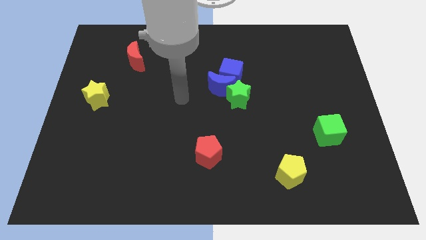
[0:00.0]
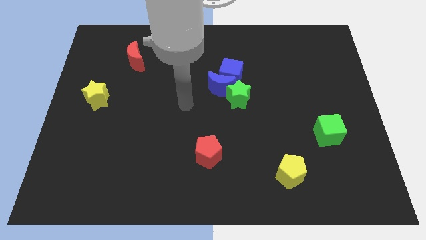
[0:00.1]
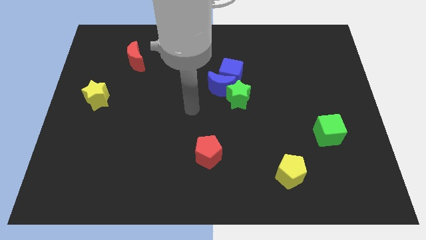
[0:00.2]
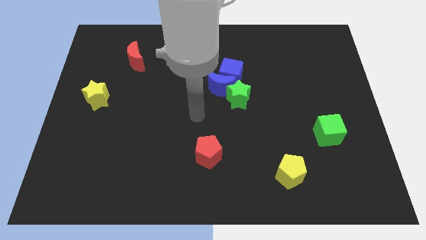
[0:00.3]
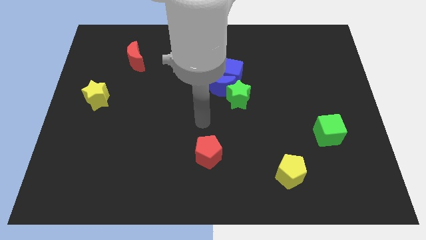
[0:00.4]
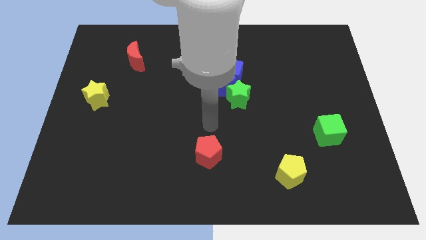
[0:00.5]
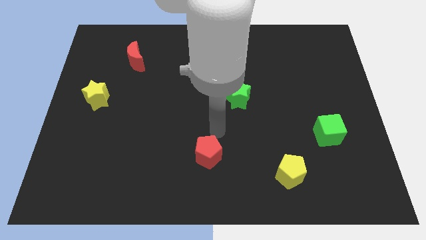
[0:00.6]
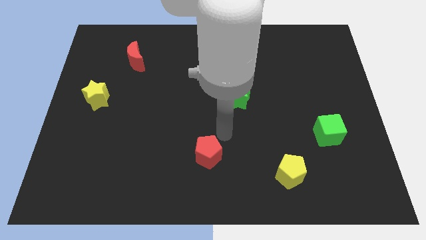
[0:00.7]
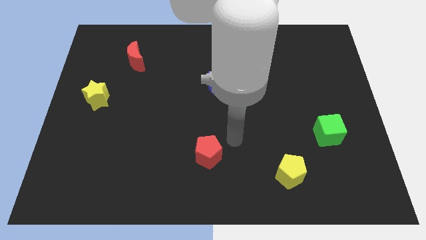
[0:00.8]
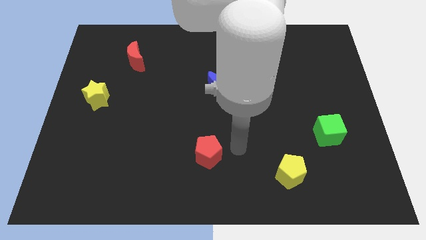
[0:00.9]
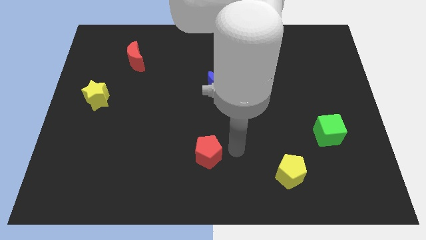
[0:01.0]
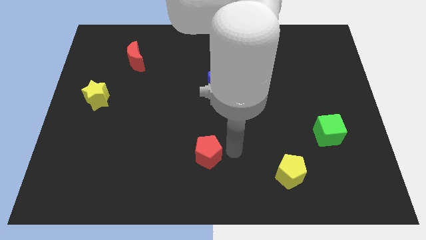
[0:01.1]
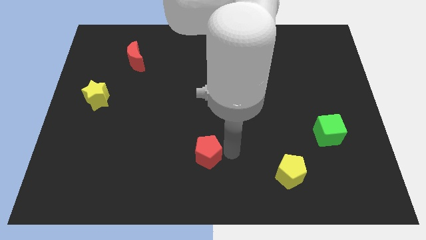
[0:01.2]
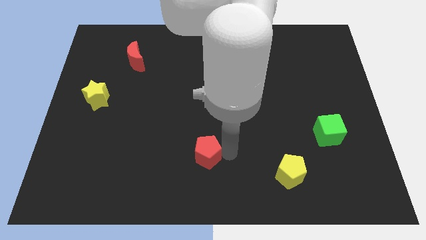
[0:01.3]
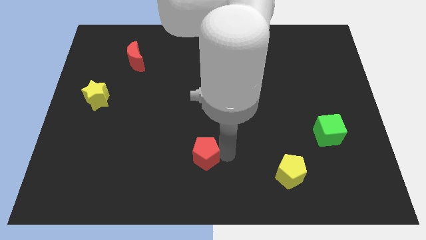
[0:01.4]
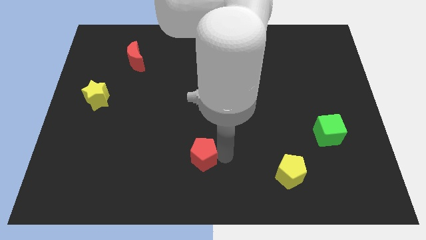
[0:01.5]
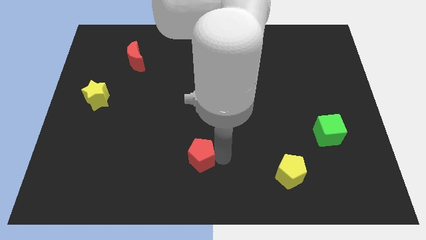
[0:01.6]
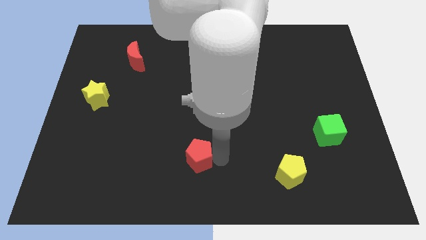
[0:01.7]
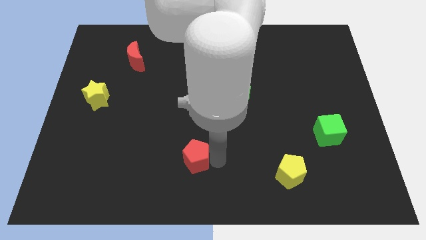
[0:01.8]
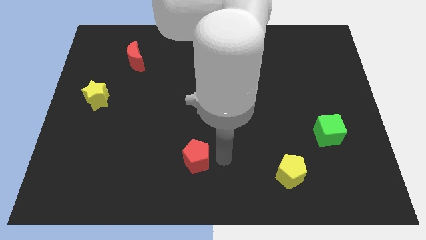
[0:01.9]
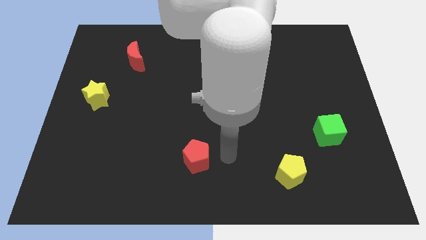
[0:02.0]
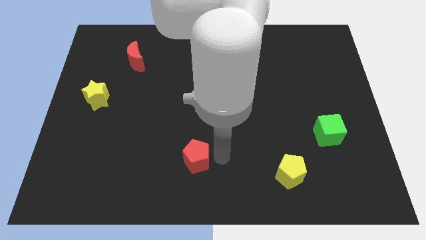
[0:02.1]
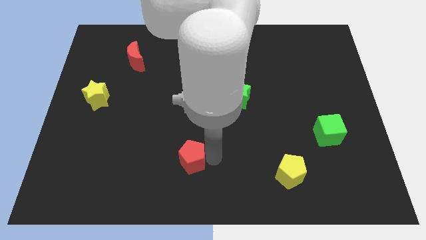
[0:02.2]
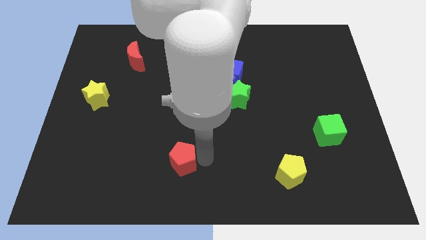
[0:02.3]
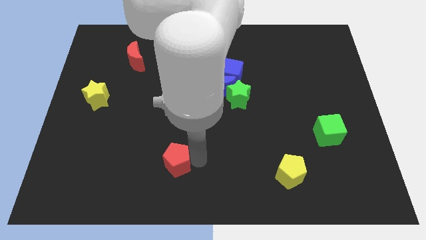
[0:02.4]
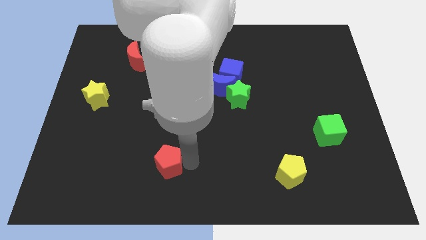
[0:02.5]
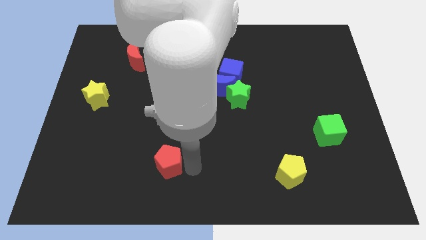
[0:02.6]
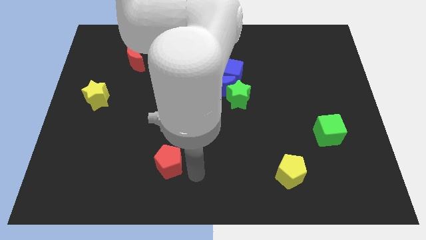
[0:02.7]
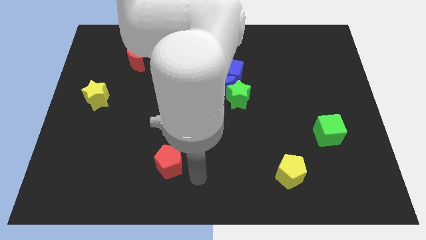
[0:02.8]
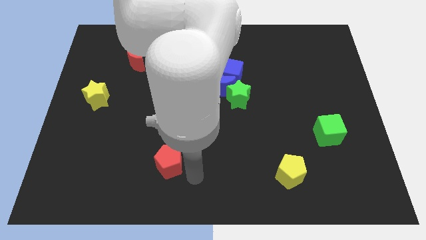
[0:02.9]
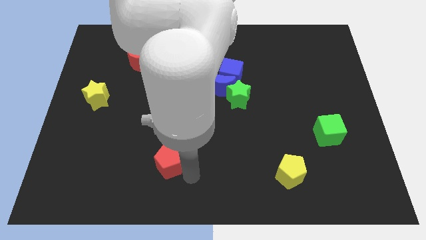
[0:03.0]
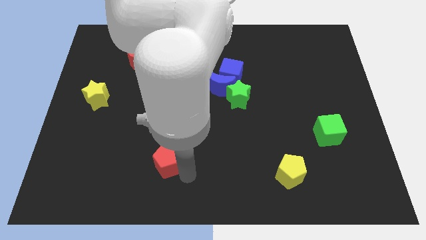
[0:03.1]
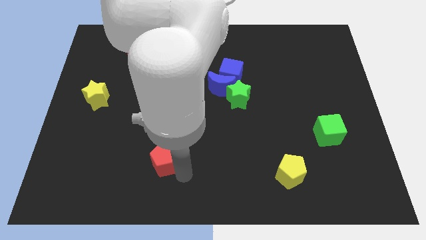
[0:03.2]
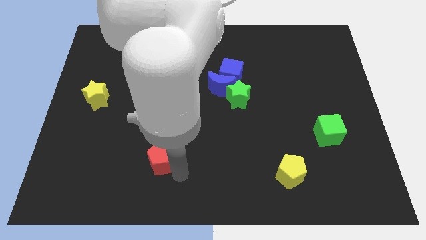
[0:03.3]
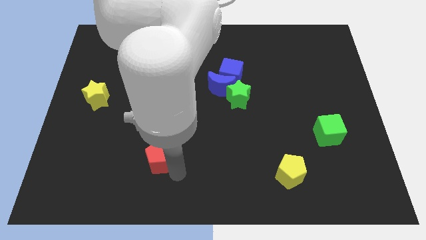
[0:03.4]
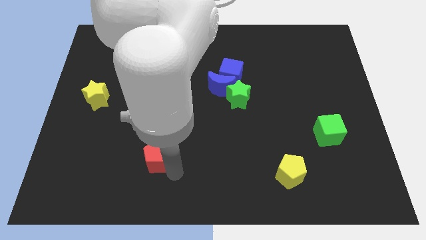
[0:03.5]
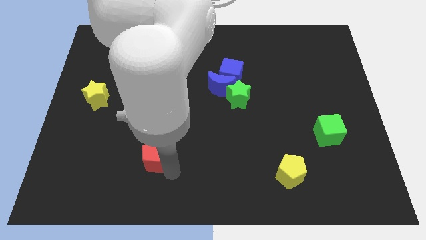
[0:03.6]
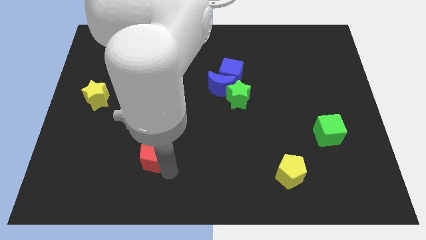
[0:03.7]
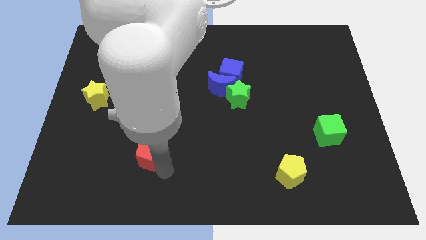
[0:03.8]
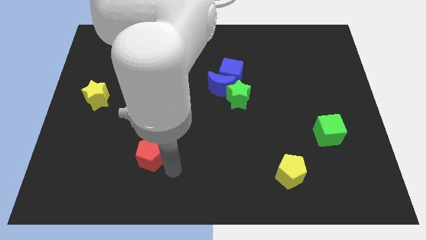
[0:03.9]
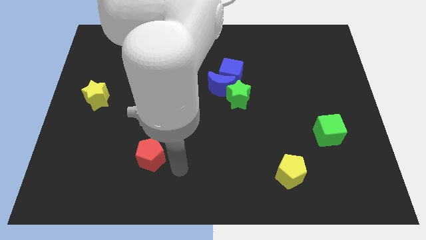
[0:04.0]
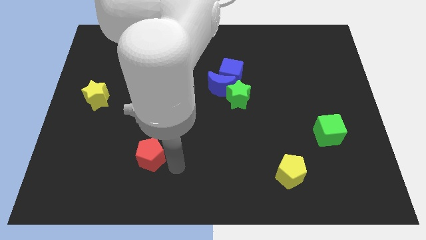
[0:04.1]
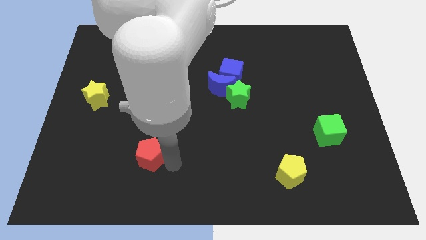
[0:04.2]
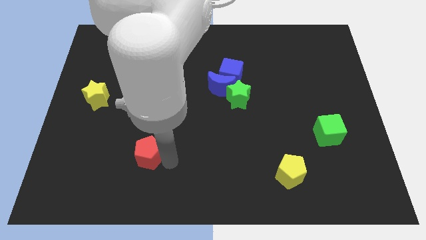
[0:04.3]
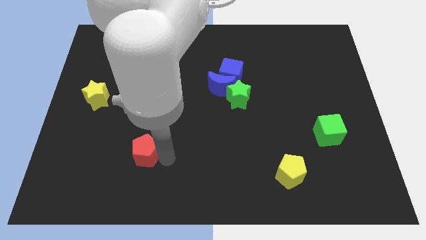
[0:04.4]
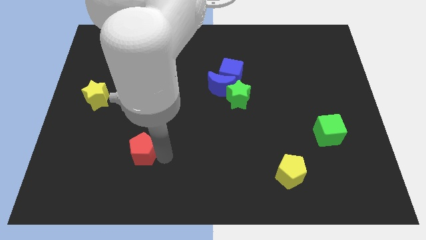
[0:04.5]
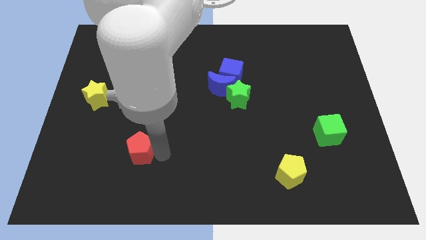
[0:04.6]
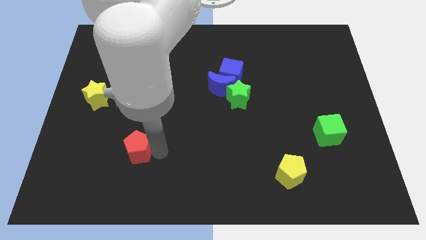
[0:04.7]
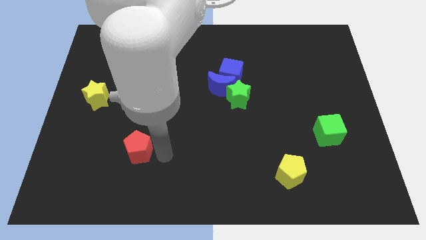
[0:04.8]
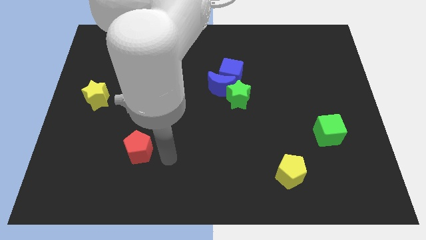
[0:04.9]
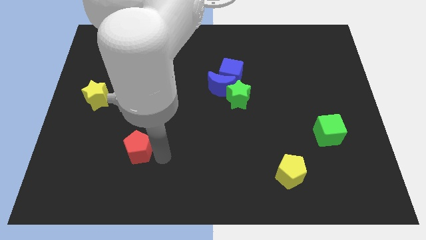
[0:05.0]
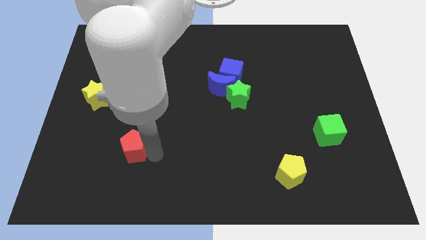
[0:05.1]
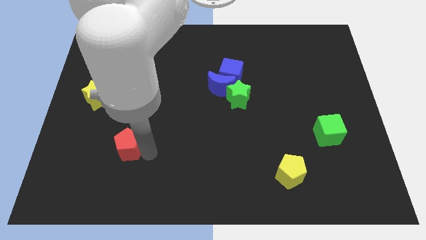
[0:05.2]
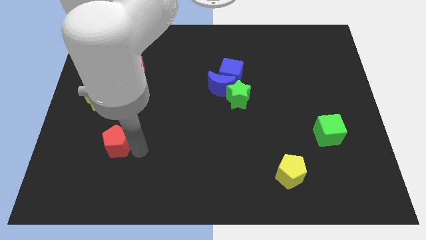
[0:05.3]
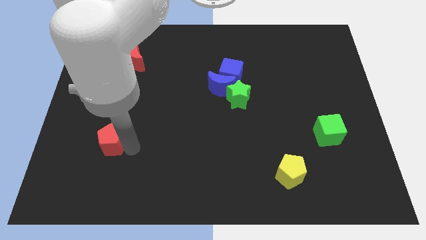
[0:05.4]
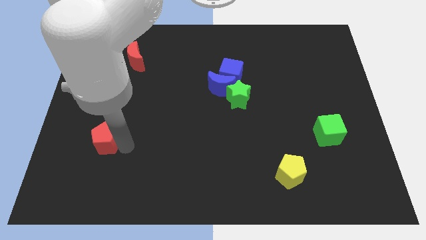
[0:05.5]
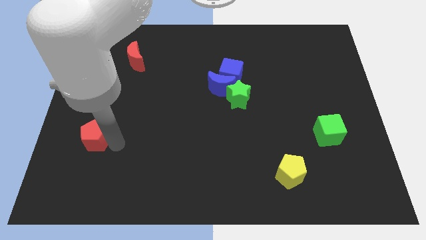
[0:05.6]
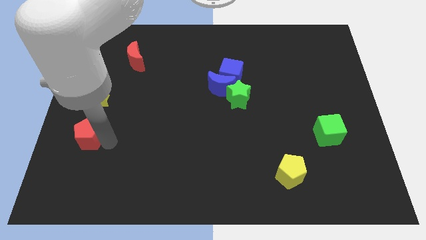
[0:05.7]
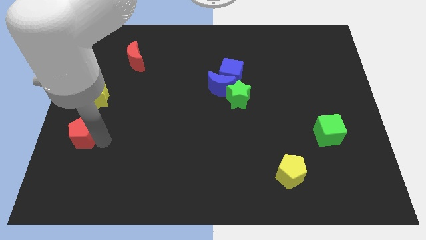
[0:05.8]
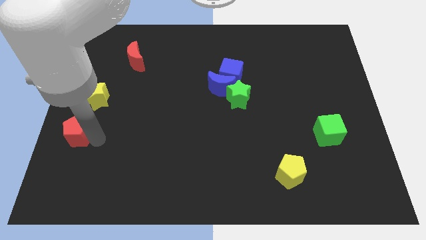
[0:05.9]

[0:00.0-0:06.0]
slide the red pentagon to the left side of the board

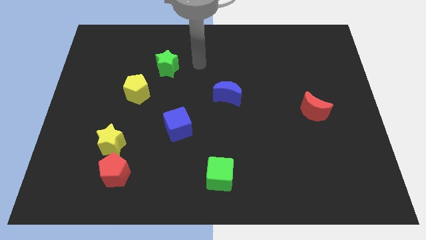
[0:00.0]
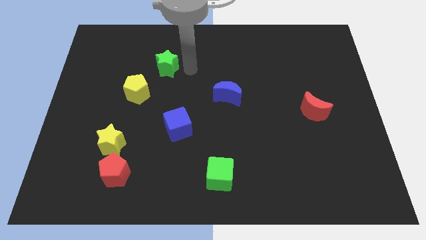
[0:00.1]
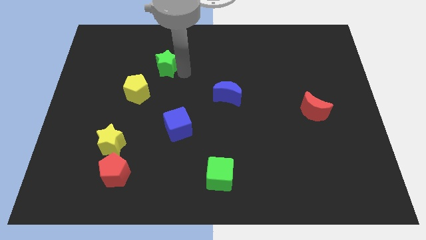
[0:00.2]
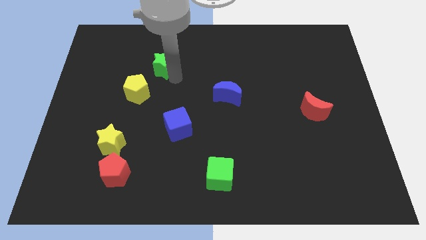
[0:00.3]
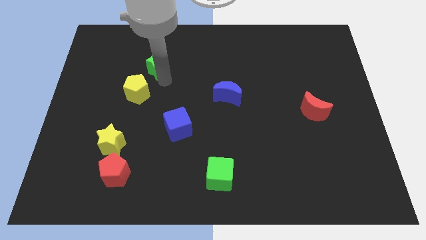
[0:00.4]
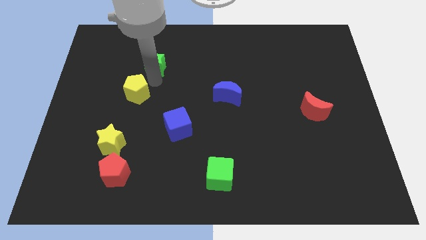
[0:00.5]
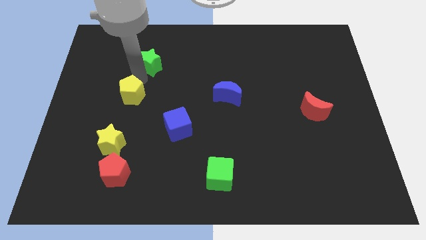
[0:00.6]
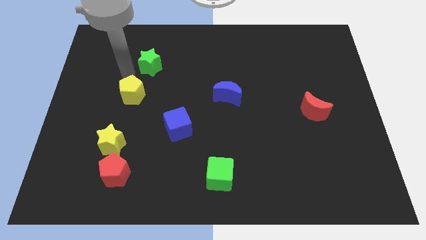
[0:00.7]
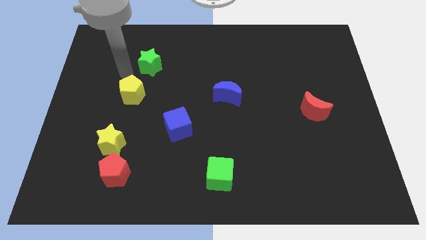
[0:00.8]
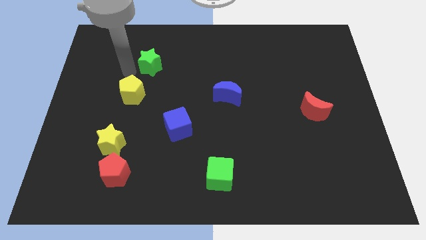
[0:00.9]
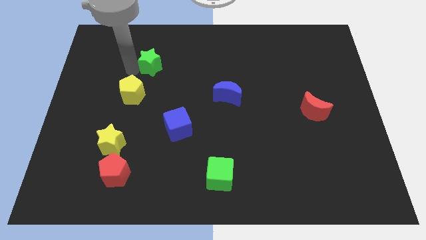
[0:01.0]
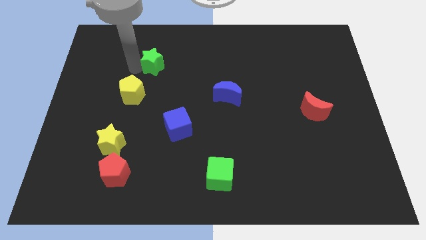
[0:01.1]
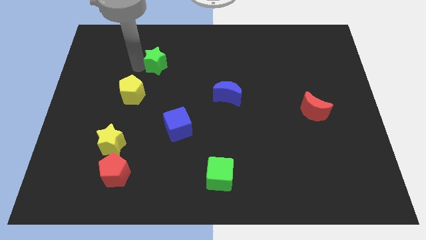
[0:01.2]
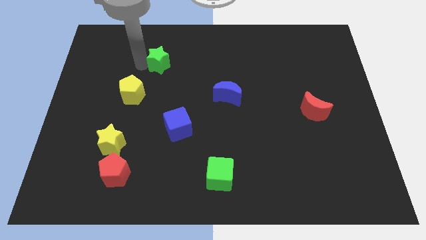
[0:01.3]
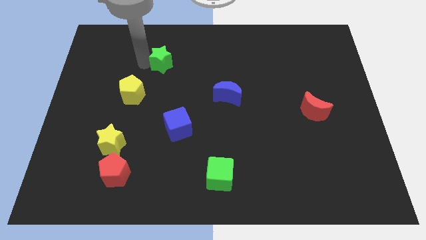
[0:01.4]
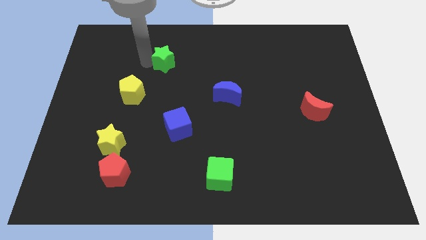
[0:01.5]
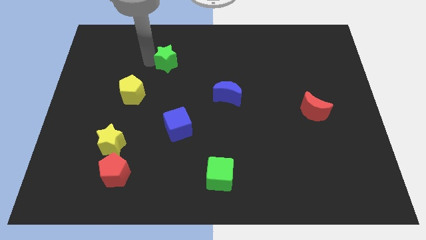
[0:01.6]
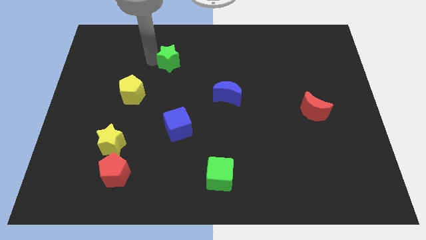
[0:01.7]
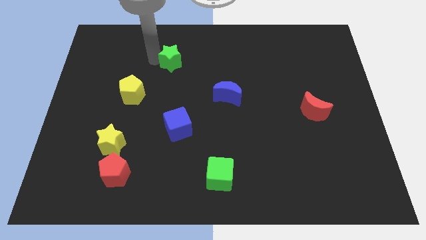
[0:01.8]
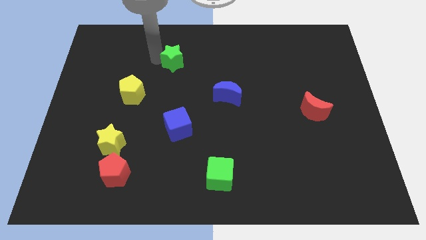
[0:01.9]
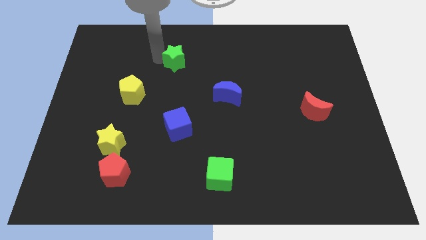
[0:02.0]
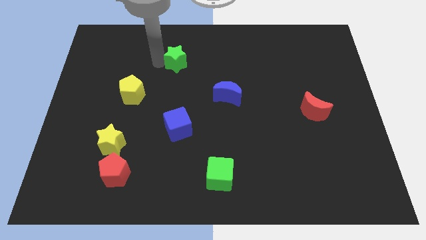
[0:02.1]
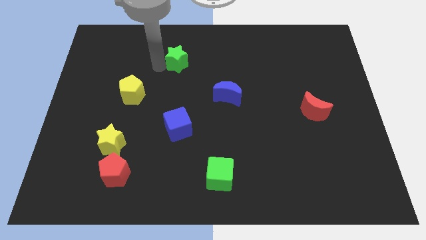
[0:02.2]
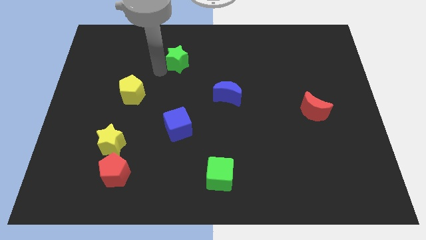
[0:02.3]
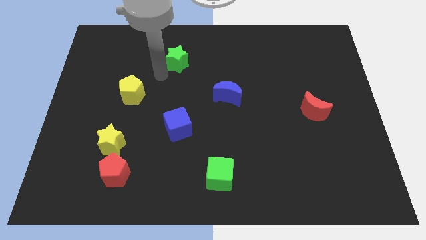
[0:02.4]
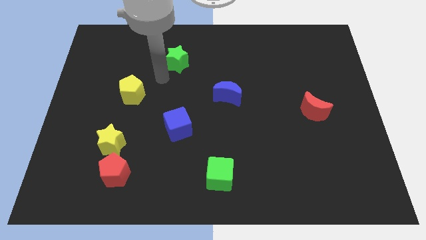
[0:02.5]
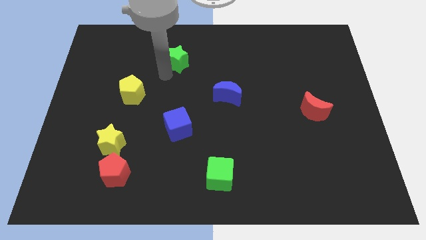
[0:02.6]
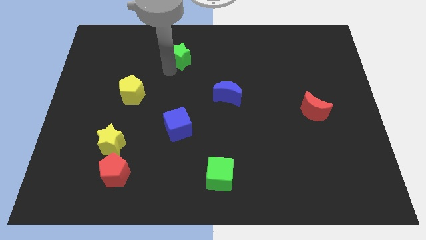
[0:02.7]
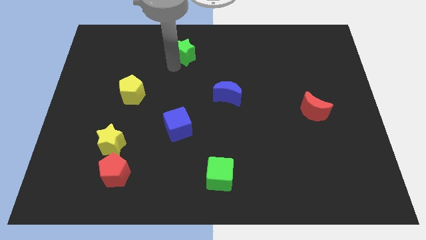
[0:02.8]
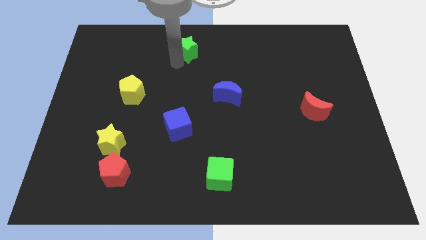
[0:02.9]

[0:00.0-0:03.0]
move the green star to the top
